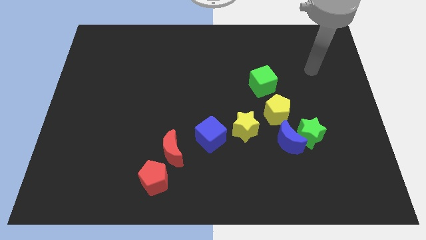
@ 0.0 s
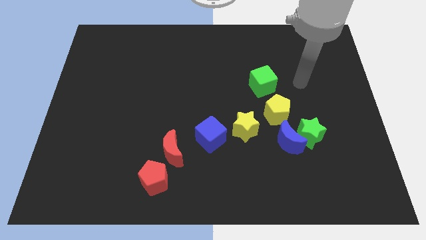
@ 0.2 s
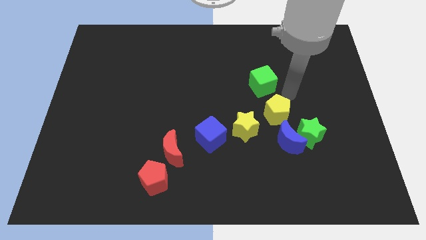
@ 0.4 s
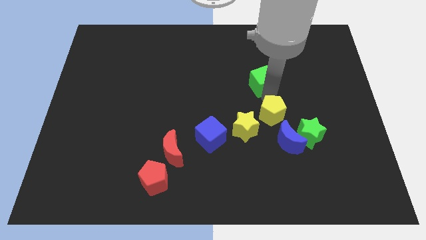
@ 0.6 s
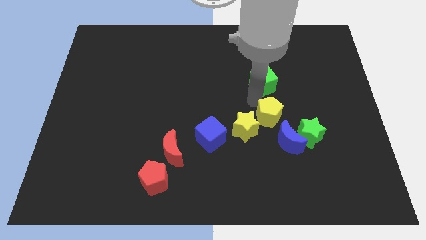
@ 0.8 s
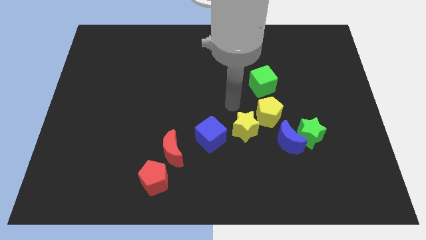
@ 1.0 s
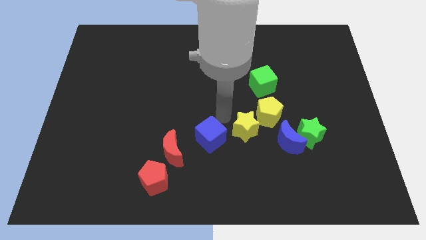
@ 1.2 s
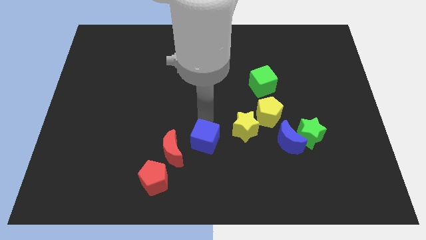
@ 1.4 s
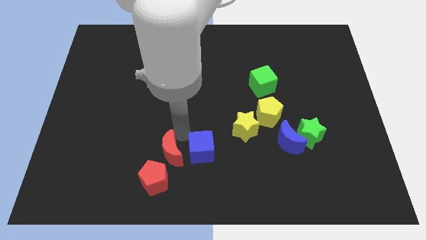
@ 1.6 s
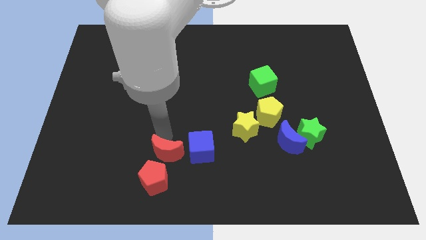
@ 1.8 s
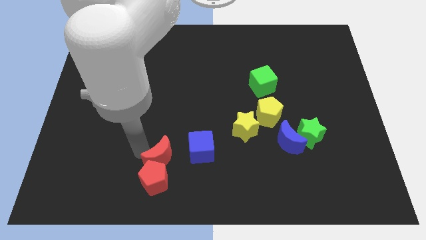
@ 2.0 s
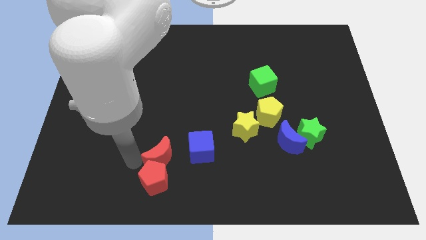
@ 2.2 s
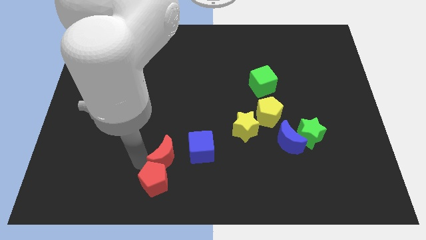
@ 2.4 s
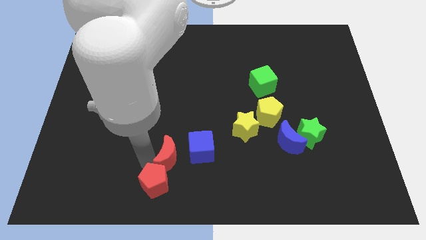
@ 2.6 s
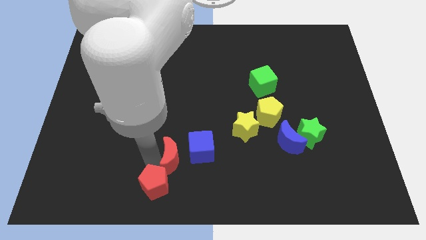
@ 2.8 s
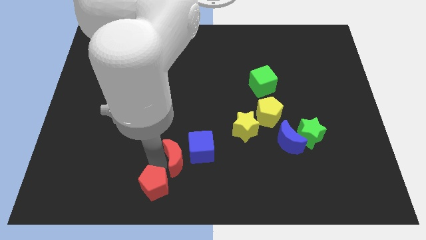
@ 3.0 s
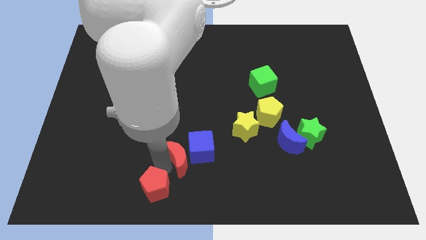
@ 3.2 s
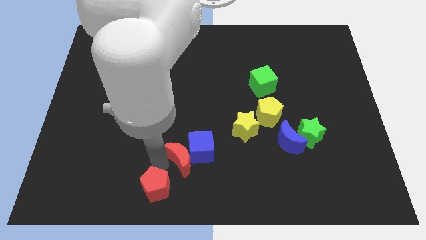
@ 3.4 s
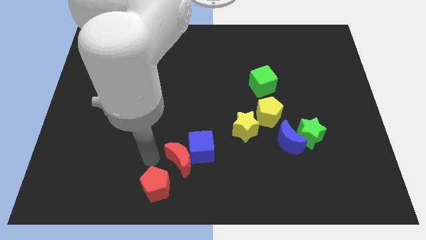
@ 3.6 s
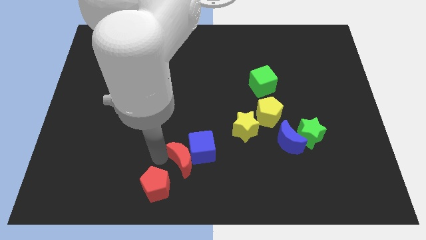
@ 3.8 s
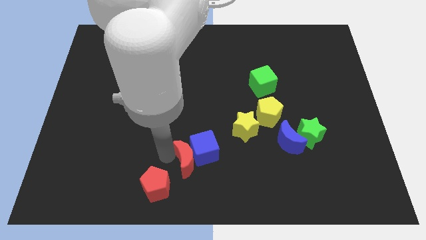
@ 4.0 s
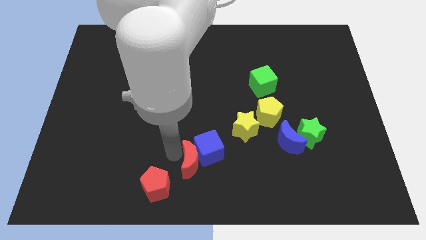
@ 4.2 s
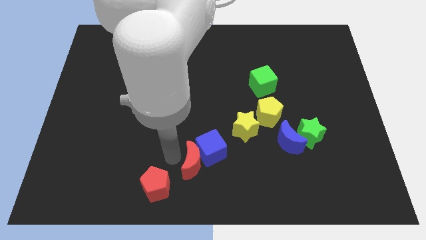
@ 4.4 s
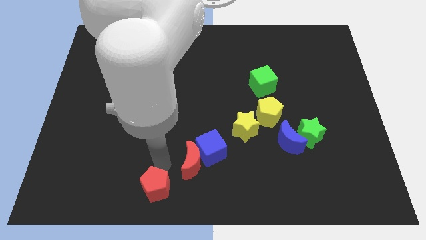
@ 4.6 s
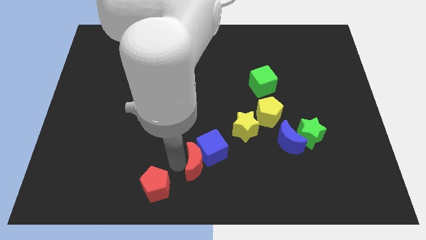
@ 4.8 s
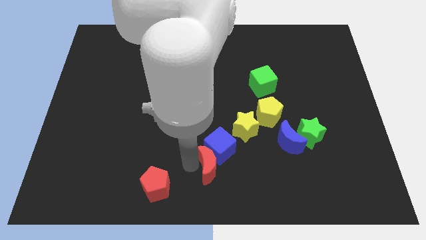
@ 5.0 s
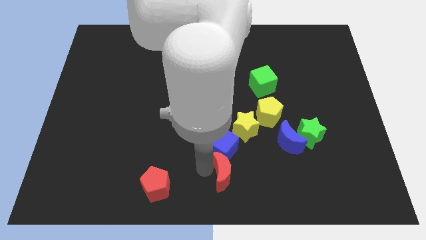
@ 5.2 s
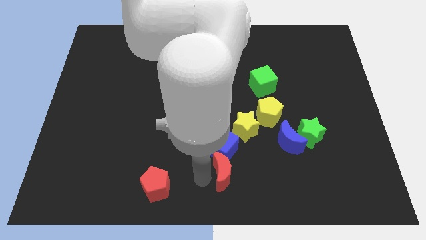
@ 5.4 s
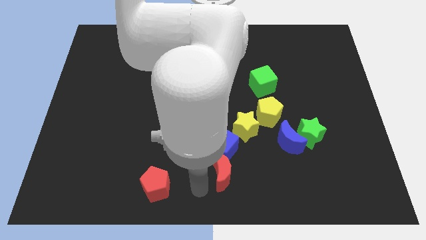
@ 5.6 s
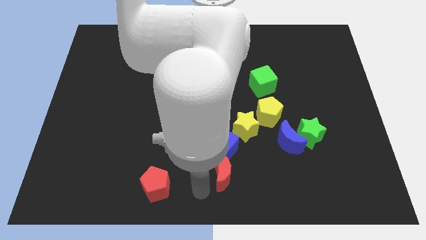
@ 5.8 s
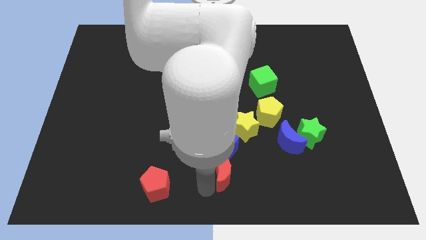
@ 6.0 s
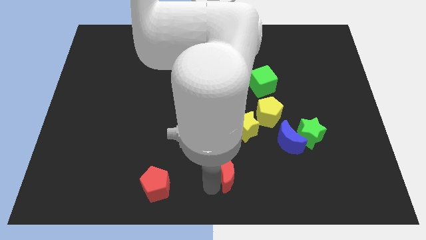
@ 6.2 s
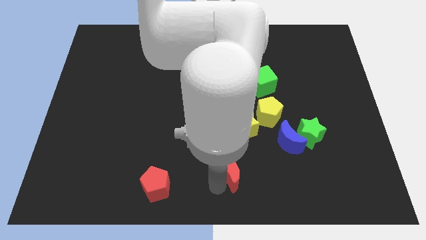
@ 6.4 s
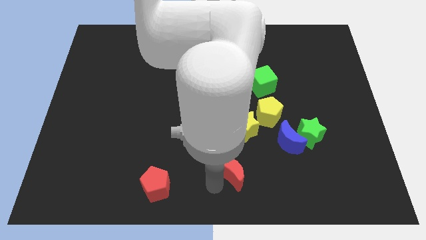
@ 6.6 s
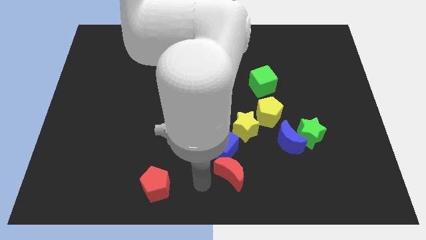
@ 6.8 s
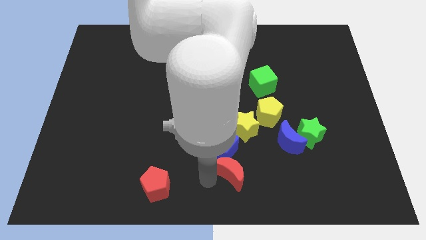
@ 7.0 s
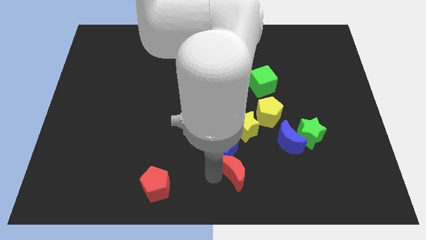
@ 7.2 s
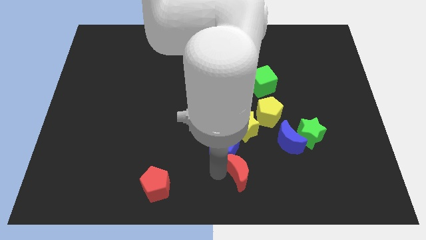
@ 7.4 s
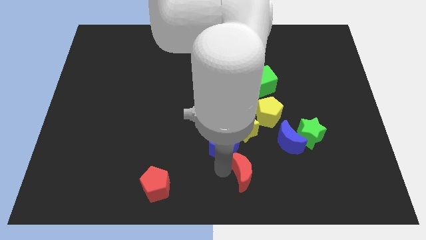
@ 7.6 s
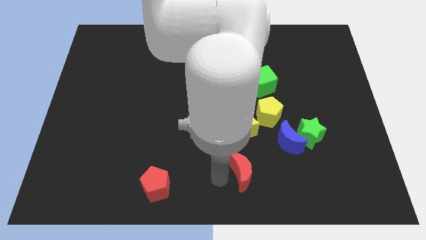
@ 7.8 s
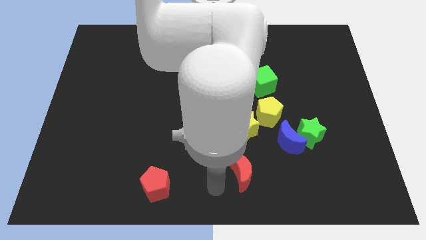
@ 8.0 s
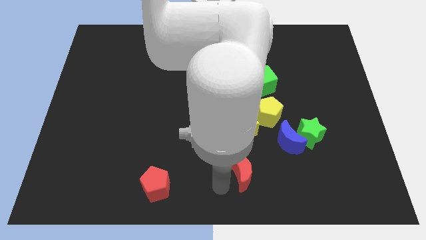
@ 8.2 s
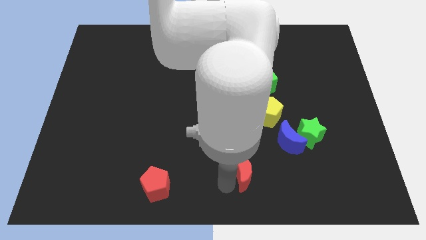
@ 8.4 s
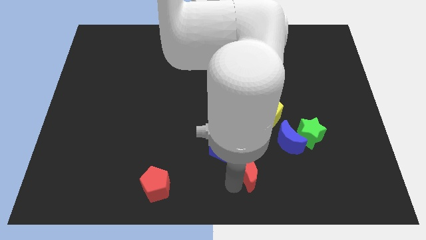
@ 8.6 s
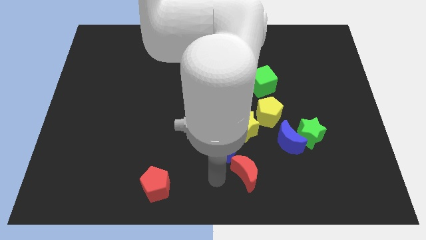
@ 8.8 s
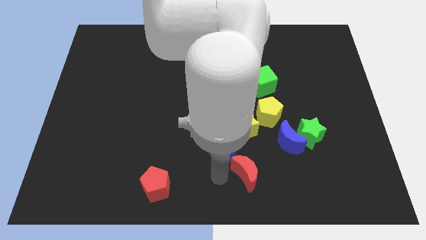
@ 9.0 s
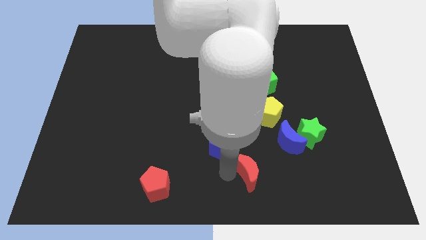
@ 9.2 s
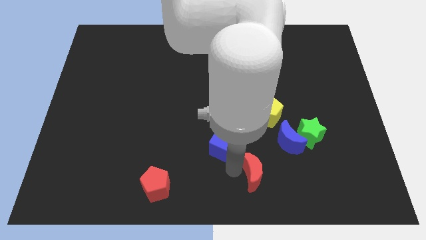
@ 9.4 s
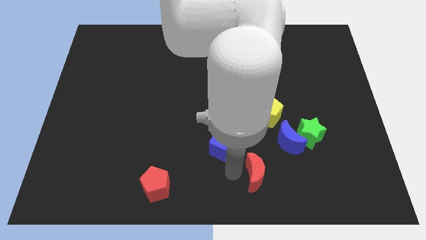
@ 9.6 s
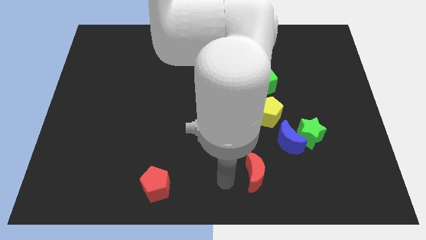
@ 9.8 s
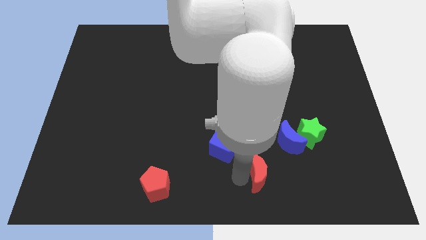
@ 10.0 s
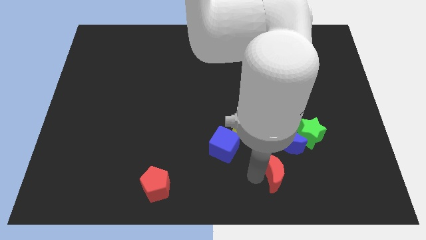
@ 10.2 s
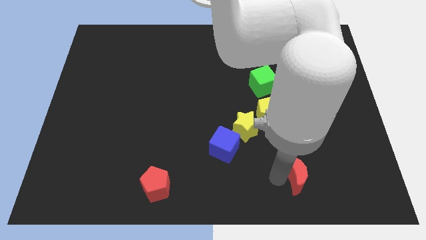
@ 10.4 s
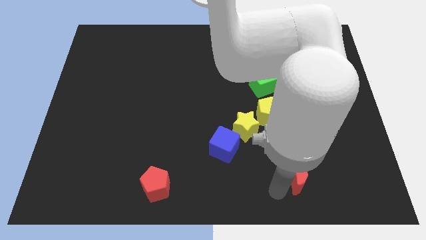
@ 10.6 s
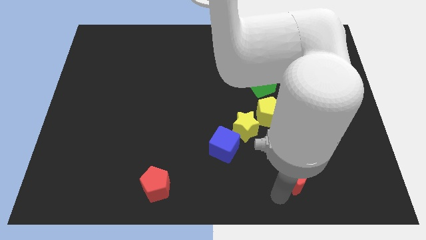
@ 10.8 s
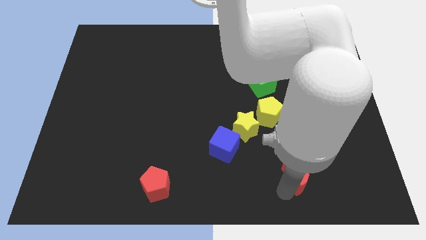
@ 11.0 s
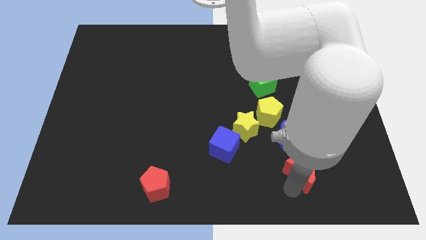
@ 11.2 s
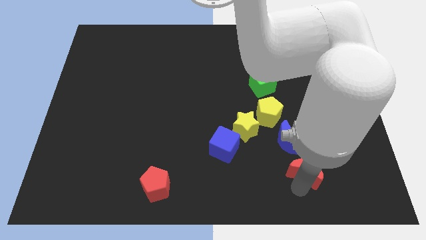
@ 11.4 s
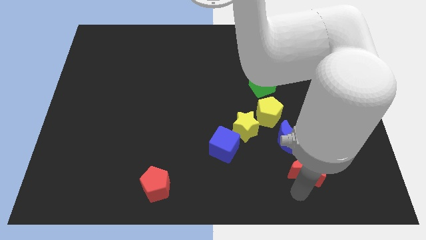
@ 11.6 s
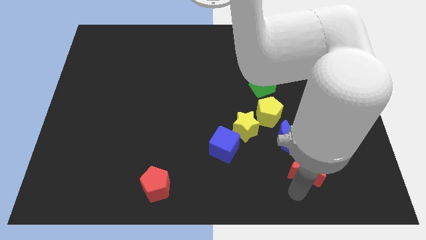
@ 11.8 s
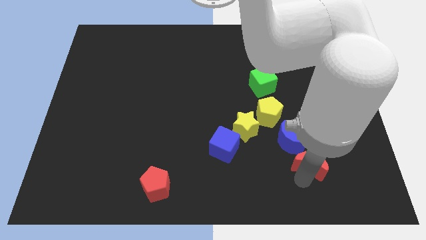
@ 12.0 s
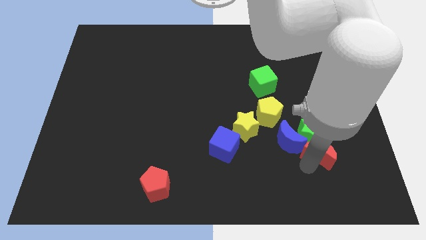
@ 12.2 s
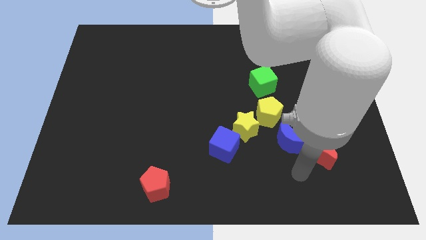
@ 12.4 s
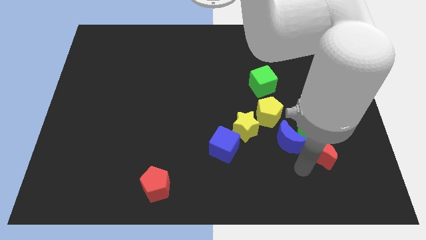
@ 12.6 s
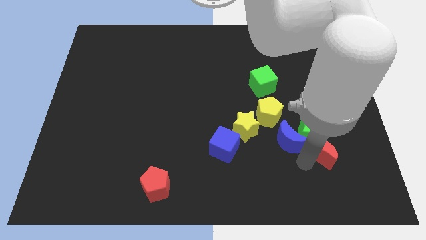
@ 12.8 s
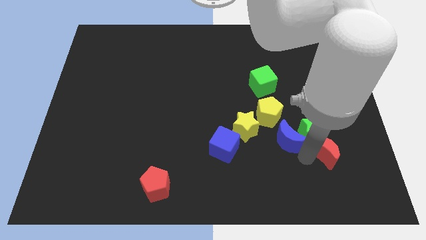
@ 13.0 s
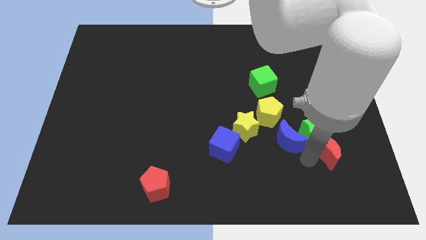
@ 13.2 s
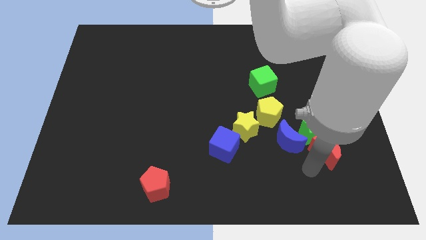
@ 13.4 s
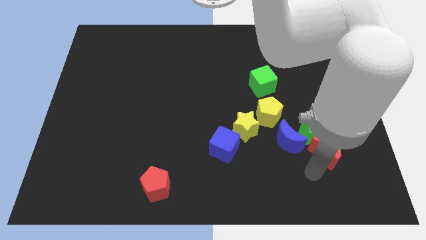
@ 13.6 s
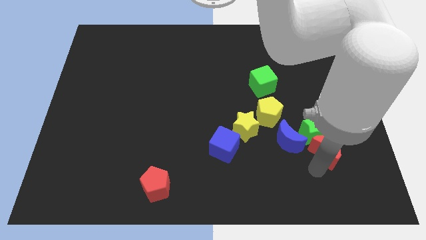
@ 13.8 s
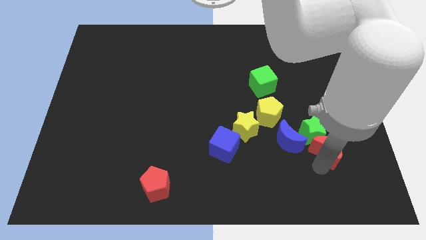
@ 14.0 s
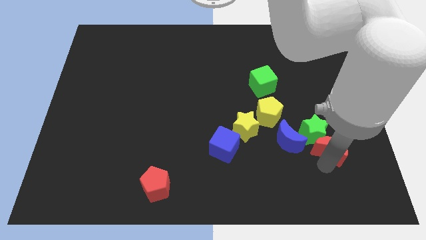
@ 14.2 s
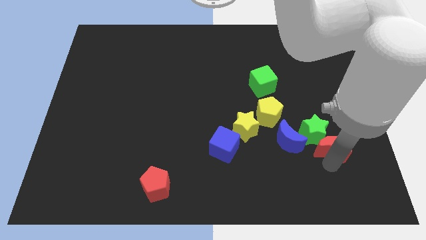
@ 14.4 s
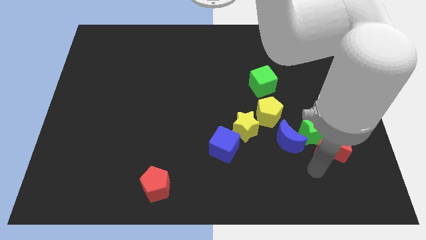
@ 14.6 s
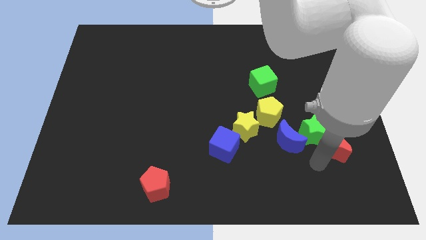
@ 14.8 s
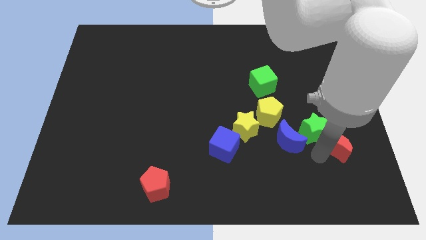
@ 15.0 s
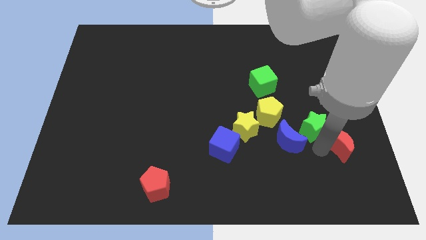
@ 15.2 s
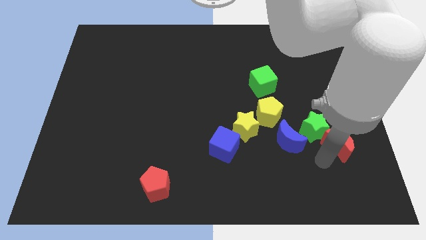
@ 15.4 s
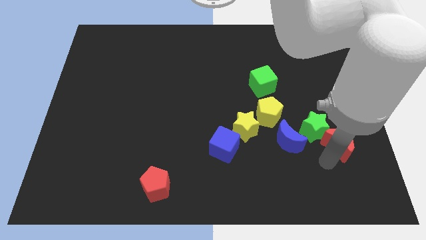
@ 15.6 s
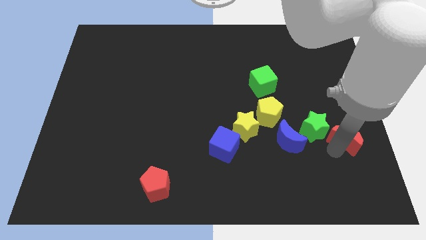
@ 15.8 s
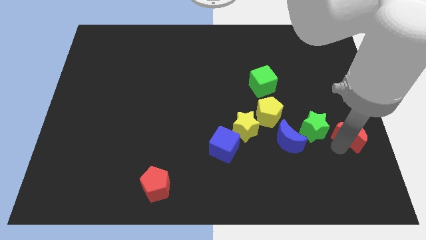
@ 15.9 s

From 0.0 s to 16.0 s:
move the red moon to the center right
